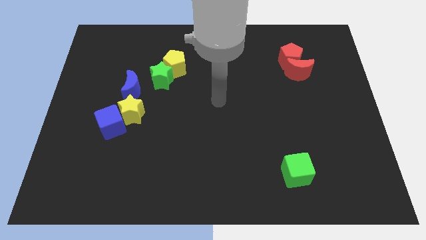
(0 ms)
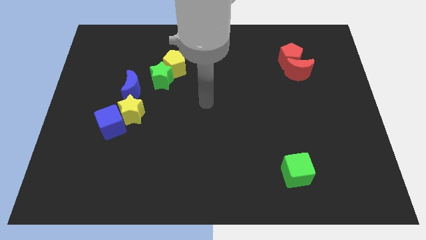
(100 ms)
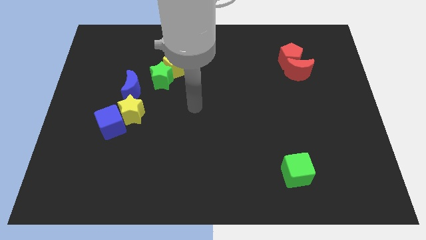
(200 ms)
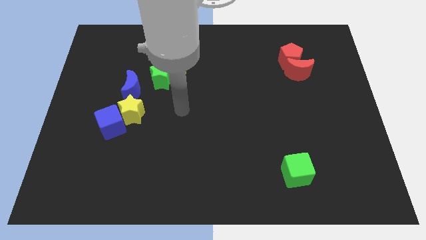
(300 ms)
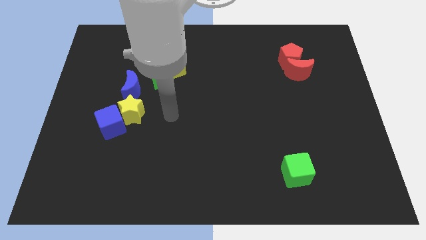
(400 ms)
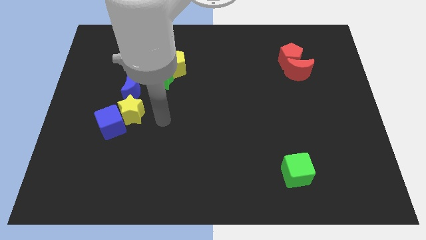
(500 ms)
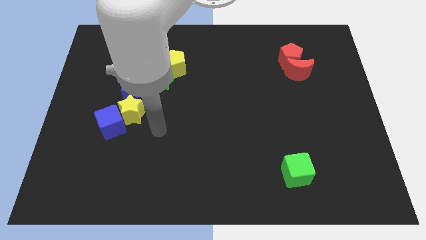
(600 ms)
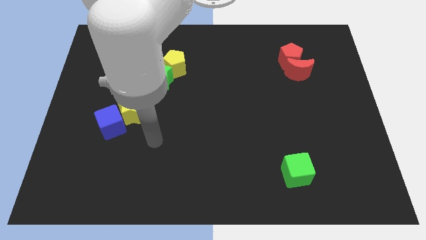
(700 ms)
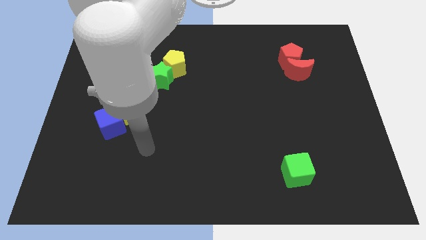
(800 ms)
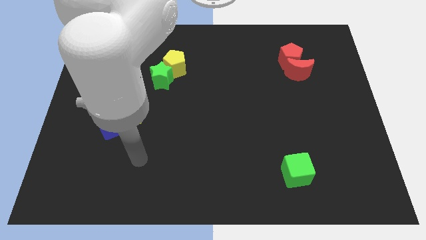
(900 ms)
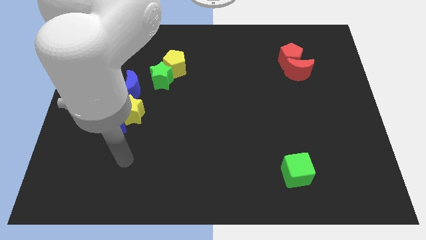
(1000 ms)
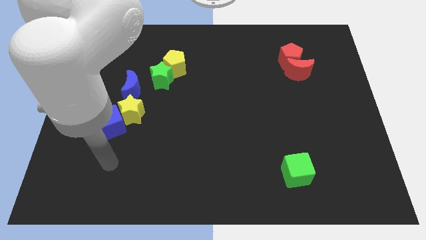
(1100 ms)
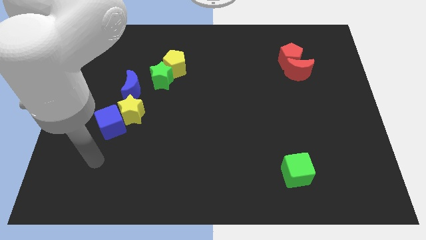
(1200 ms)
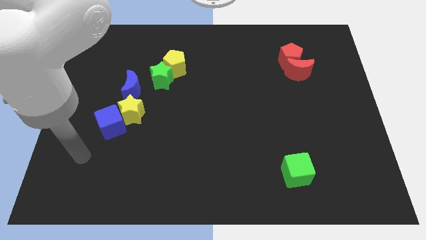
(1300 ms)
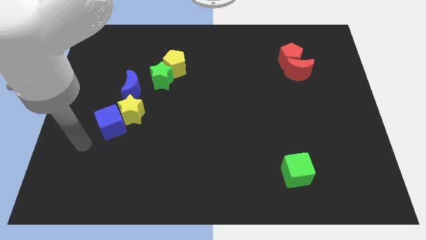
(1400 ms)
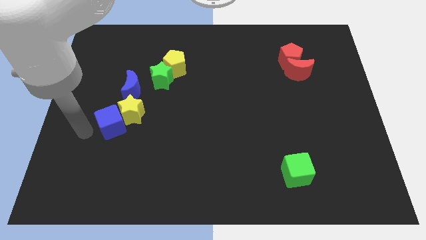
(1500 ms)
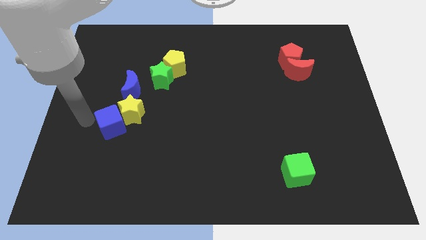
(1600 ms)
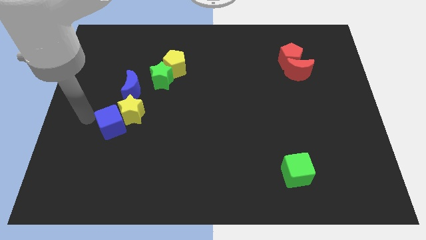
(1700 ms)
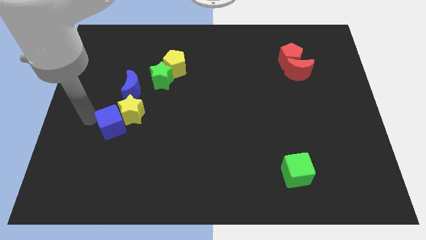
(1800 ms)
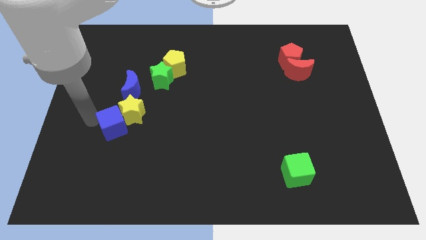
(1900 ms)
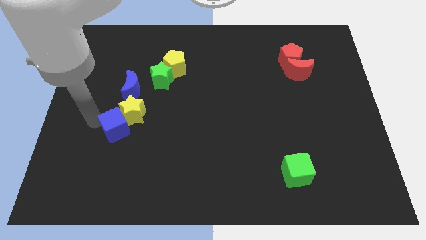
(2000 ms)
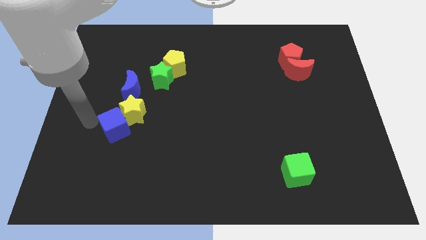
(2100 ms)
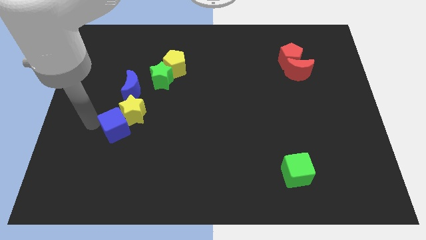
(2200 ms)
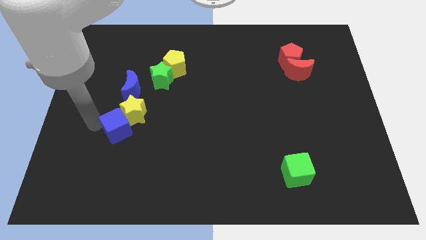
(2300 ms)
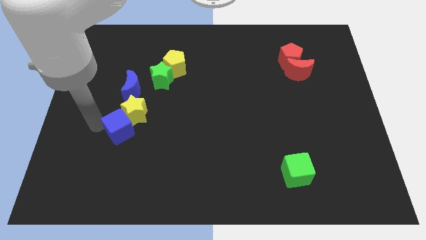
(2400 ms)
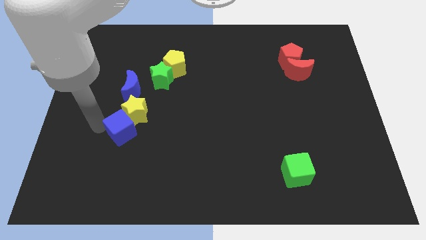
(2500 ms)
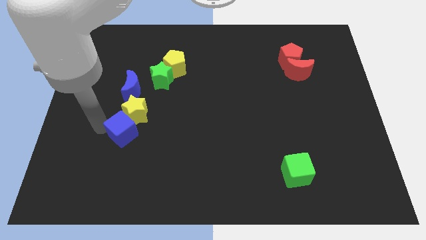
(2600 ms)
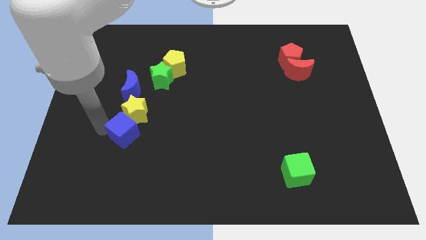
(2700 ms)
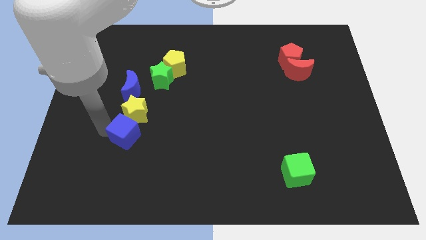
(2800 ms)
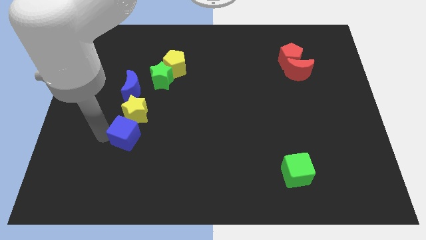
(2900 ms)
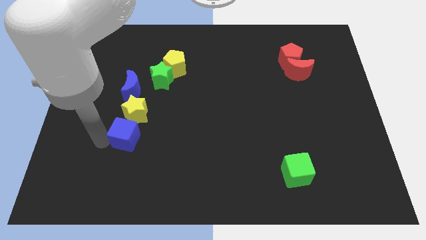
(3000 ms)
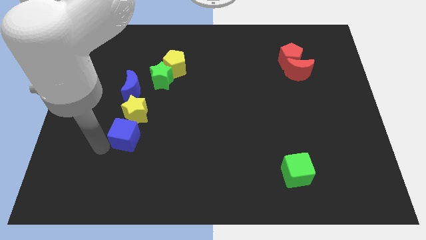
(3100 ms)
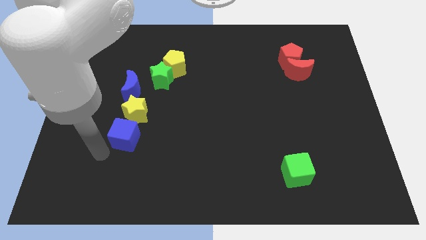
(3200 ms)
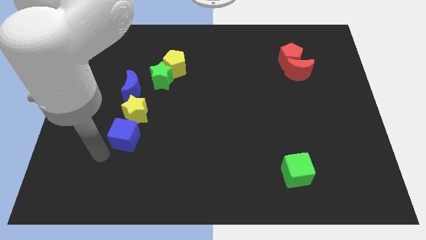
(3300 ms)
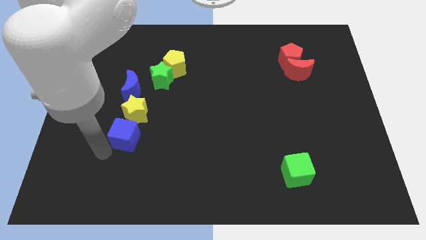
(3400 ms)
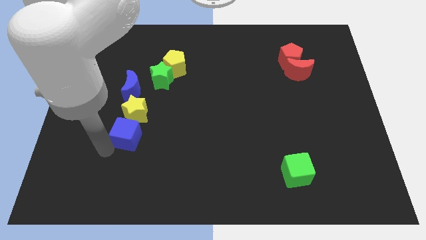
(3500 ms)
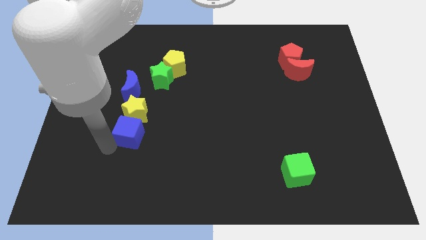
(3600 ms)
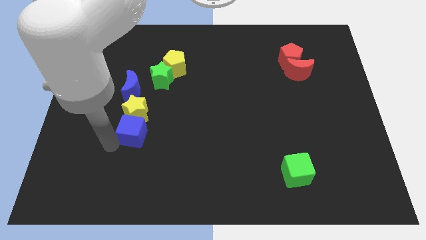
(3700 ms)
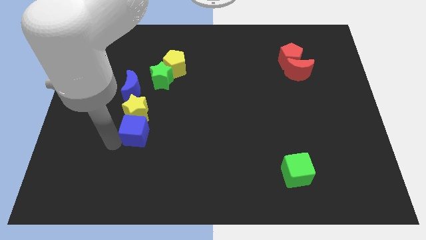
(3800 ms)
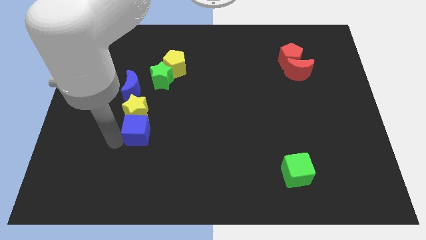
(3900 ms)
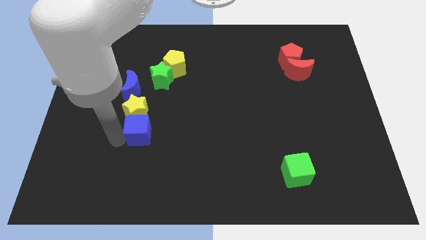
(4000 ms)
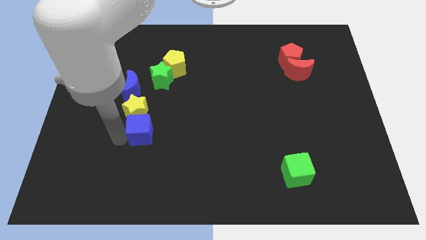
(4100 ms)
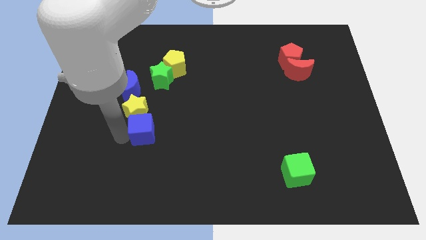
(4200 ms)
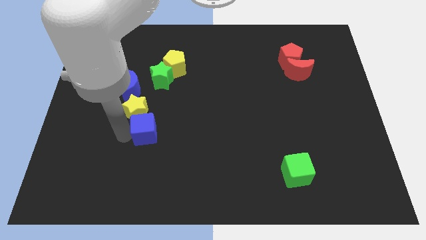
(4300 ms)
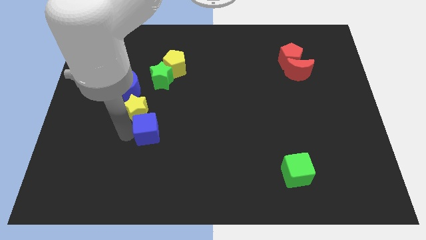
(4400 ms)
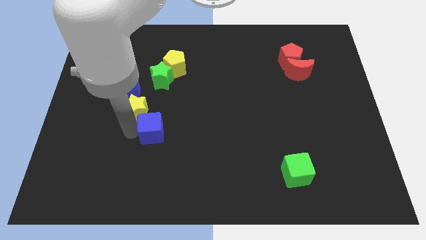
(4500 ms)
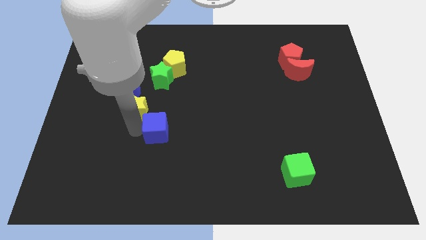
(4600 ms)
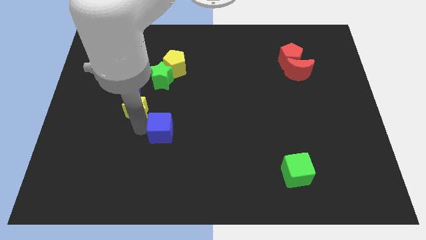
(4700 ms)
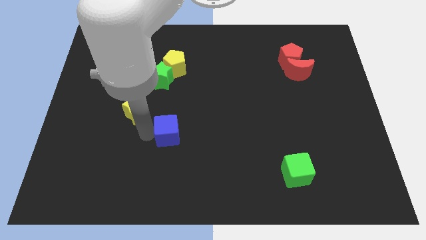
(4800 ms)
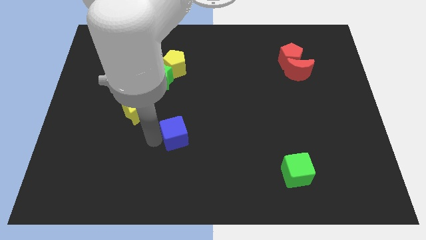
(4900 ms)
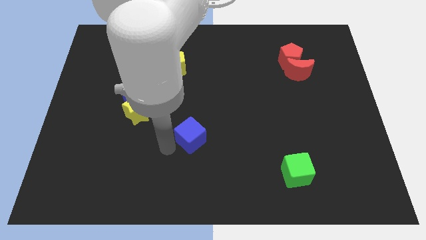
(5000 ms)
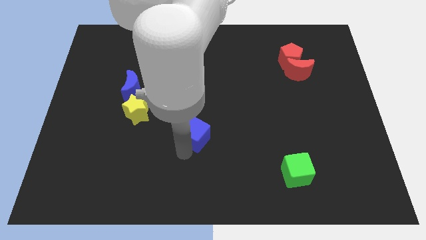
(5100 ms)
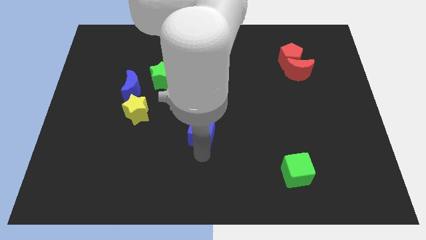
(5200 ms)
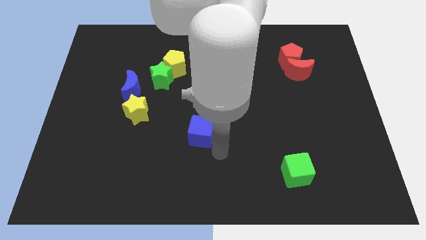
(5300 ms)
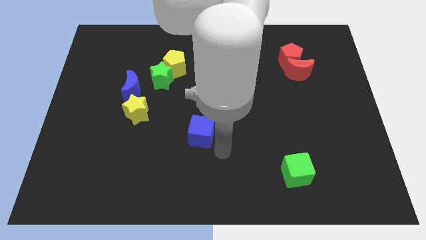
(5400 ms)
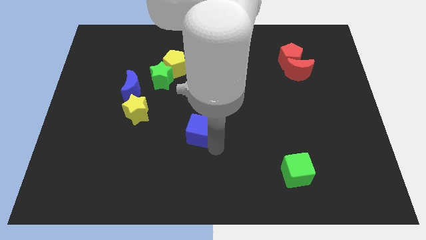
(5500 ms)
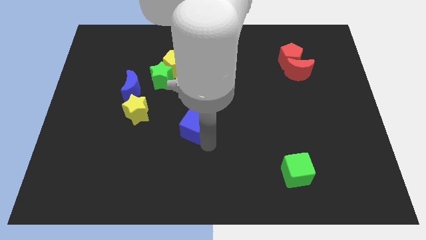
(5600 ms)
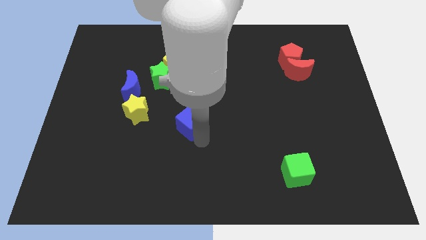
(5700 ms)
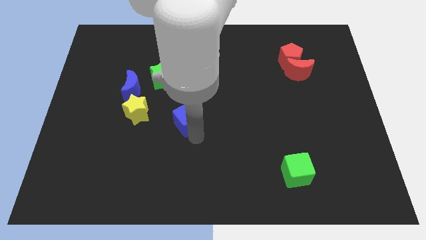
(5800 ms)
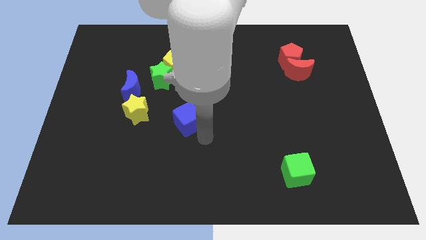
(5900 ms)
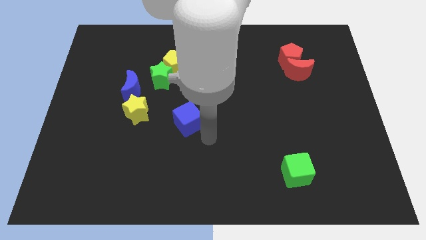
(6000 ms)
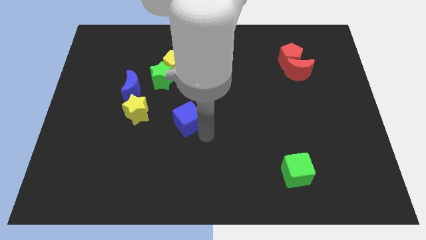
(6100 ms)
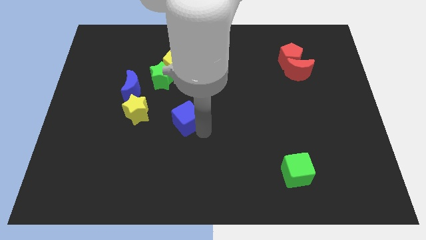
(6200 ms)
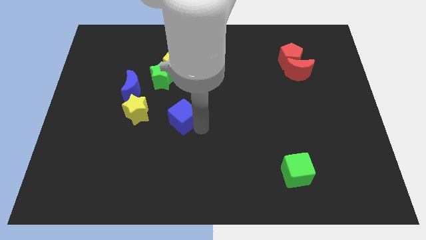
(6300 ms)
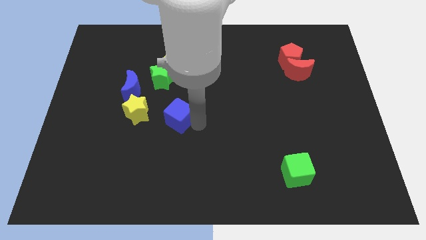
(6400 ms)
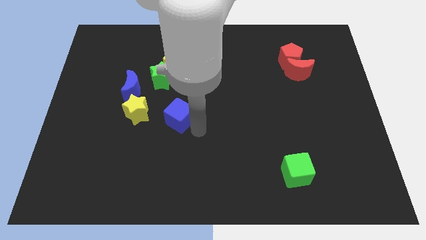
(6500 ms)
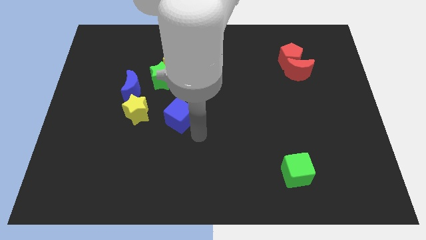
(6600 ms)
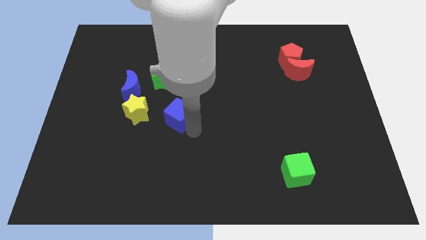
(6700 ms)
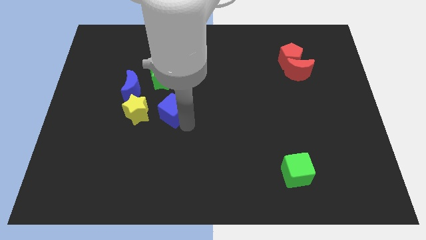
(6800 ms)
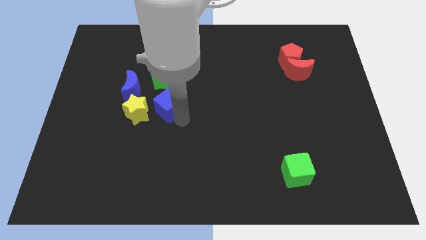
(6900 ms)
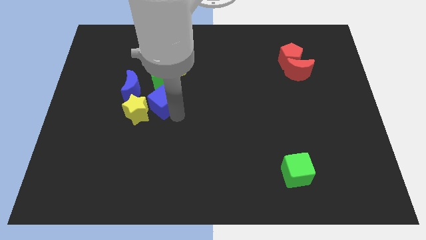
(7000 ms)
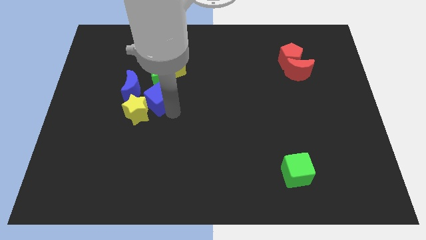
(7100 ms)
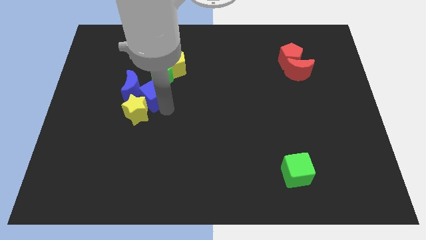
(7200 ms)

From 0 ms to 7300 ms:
push the blue cube towards the green star
